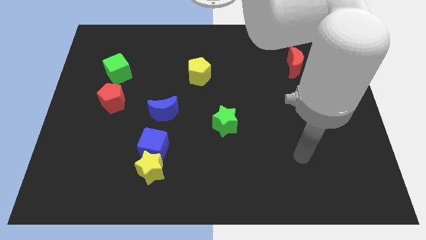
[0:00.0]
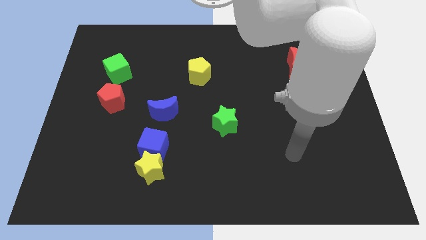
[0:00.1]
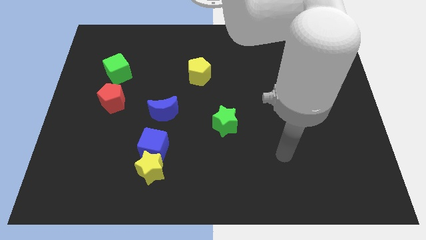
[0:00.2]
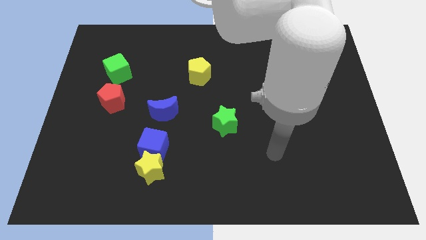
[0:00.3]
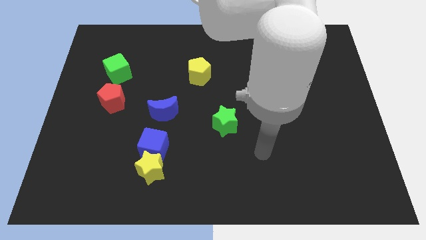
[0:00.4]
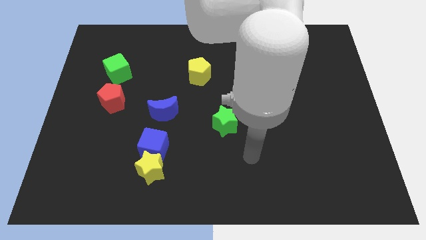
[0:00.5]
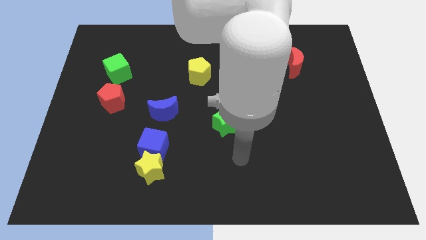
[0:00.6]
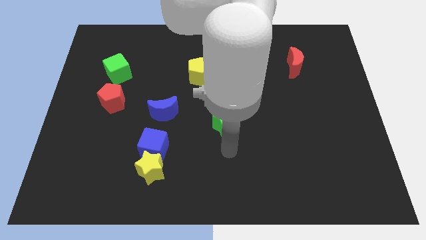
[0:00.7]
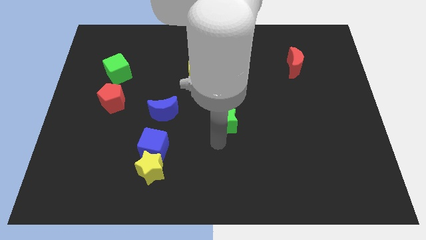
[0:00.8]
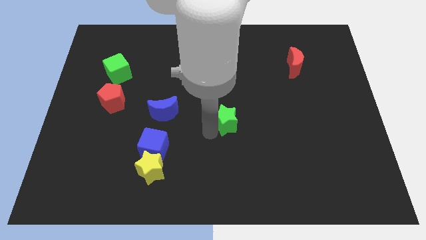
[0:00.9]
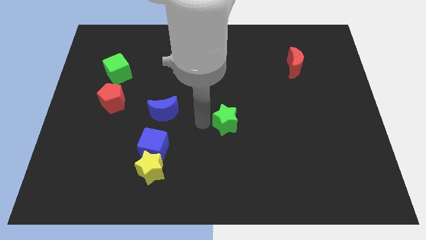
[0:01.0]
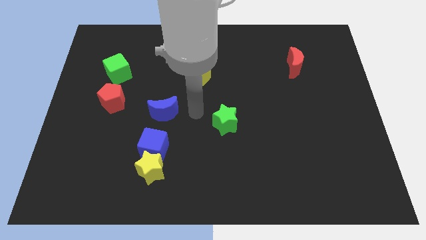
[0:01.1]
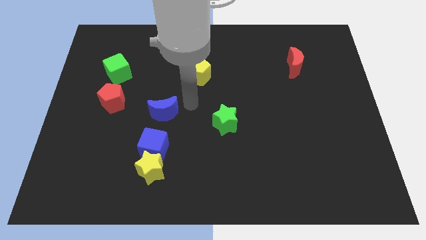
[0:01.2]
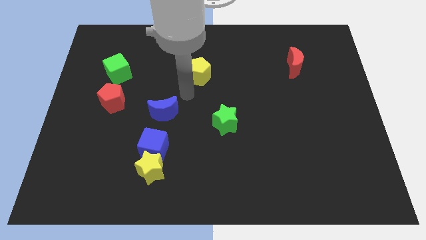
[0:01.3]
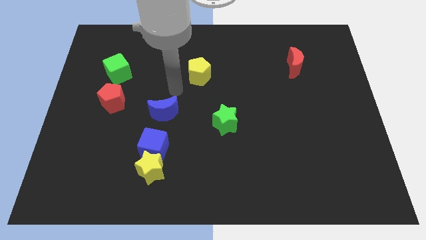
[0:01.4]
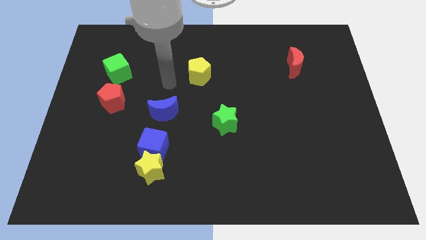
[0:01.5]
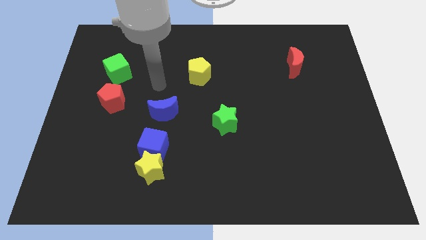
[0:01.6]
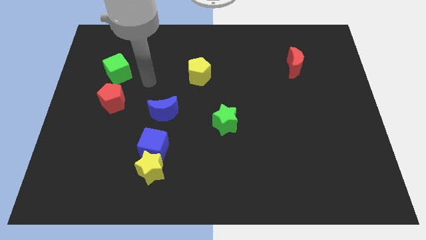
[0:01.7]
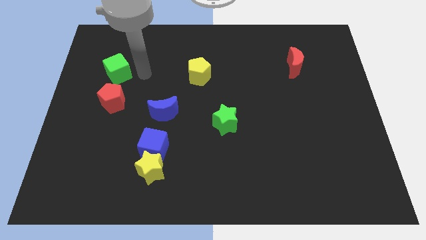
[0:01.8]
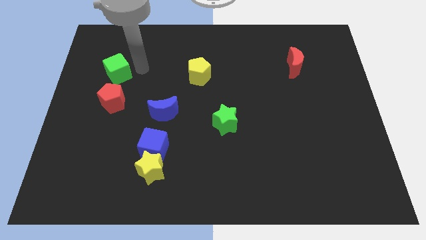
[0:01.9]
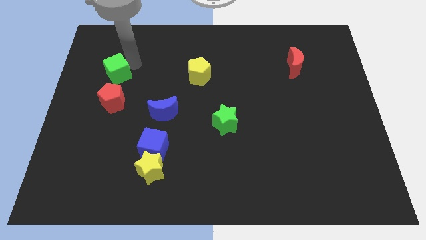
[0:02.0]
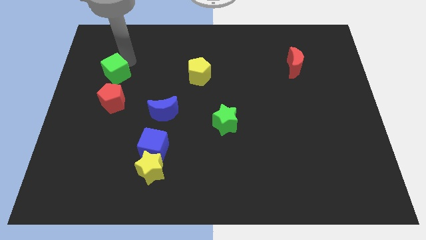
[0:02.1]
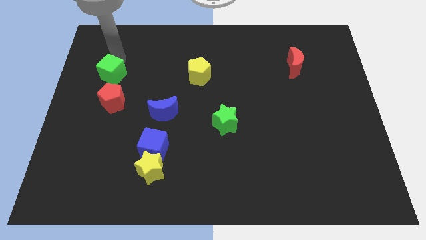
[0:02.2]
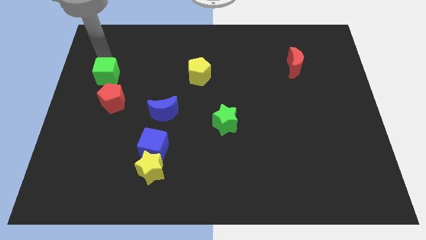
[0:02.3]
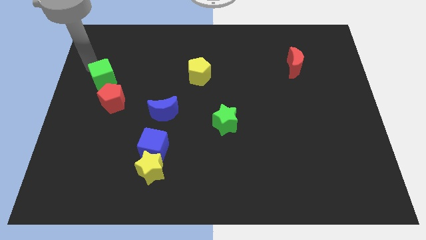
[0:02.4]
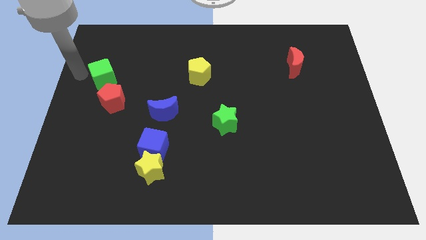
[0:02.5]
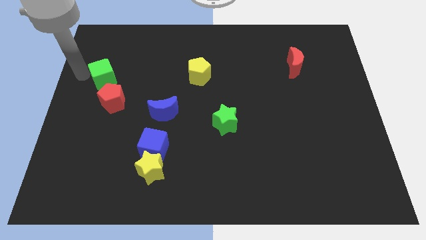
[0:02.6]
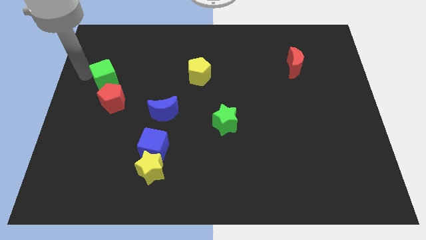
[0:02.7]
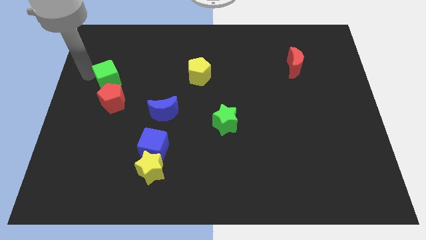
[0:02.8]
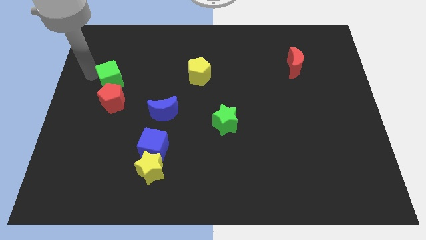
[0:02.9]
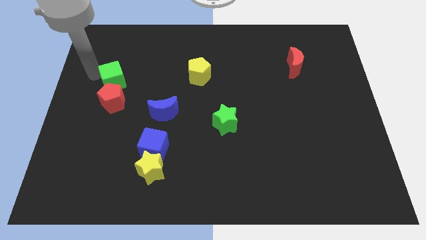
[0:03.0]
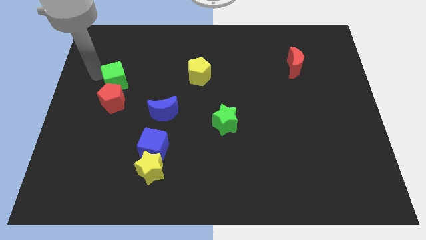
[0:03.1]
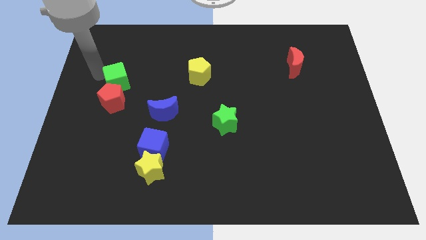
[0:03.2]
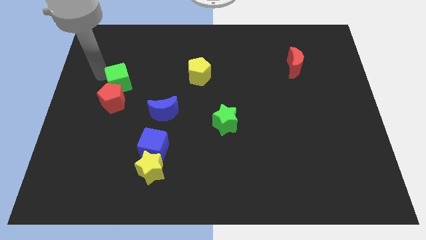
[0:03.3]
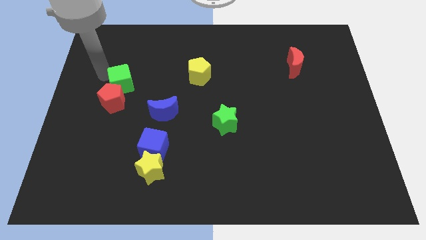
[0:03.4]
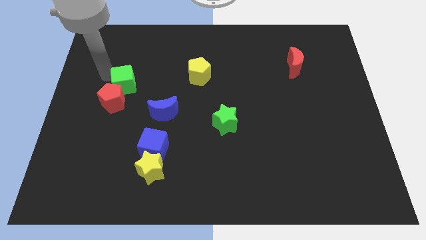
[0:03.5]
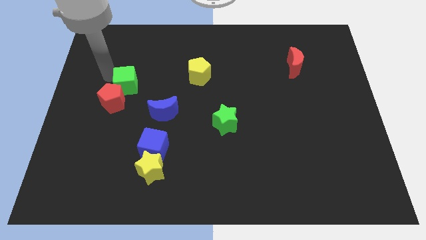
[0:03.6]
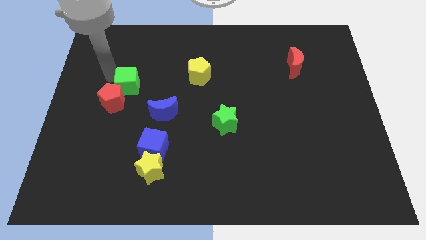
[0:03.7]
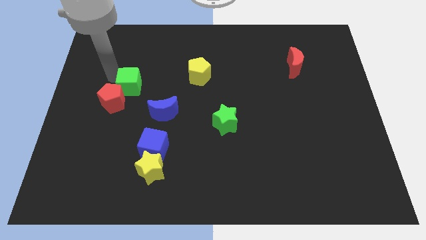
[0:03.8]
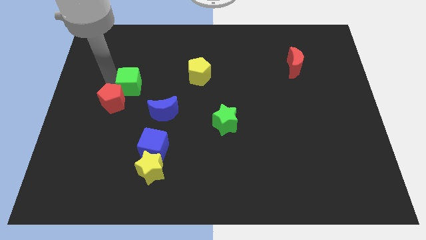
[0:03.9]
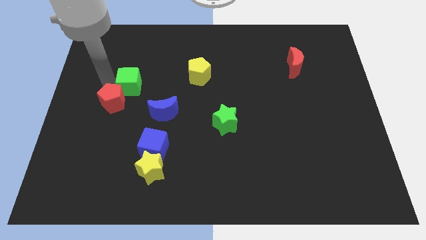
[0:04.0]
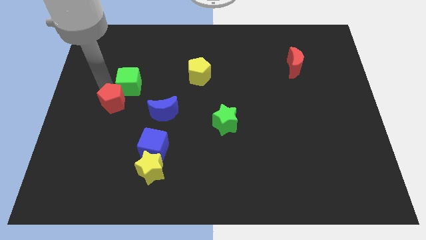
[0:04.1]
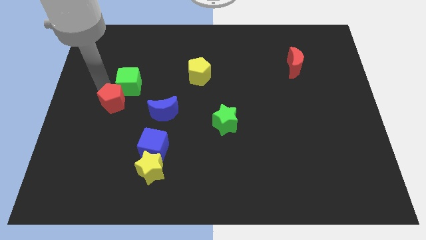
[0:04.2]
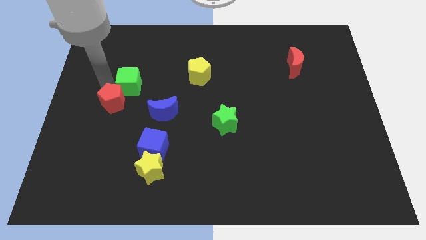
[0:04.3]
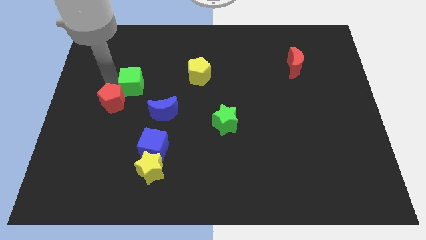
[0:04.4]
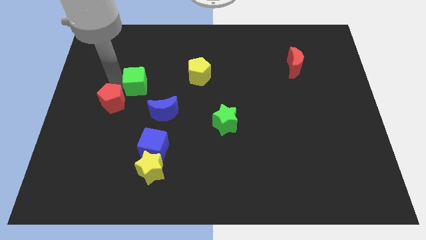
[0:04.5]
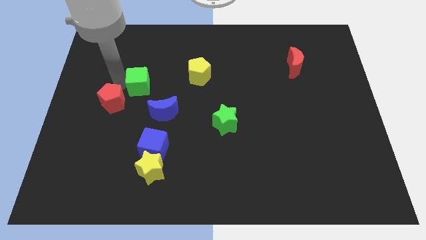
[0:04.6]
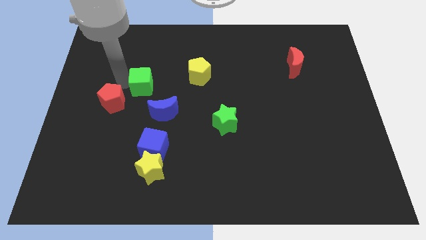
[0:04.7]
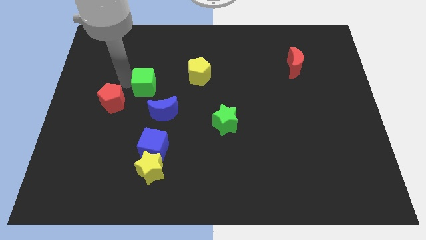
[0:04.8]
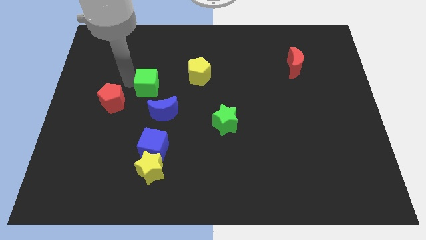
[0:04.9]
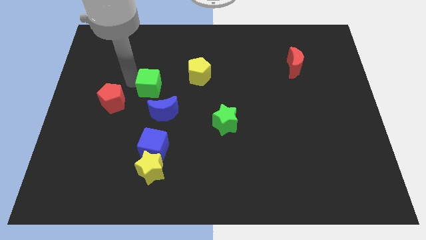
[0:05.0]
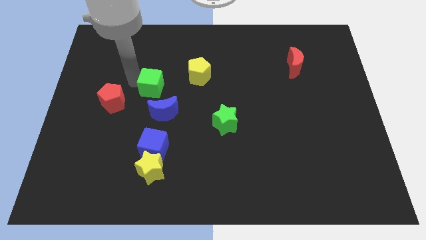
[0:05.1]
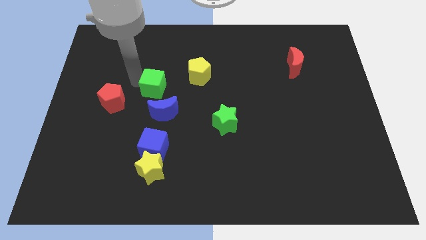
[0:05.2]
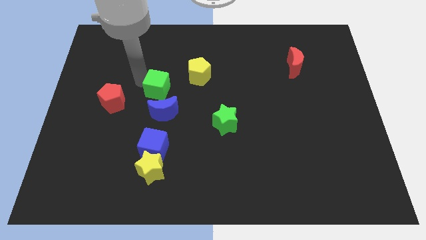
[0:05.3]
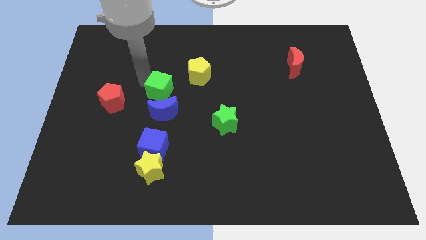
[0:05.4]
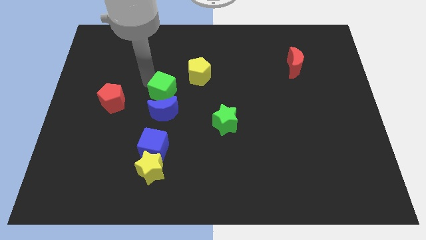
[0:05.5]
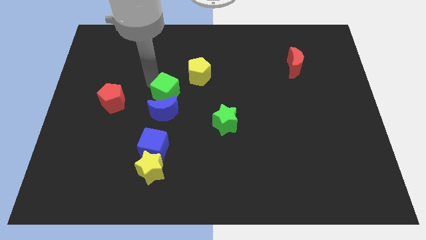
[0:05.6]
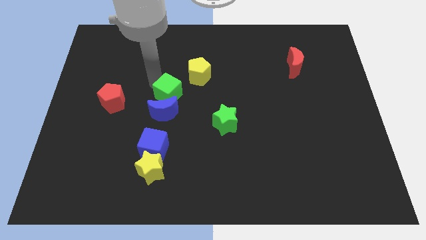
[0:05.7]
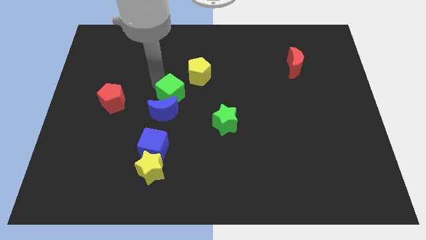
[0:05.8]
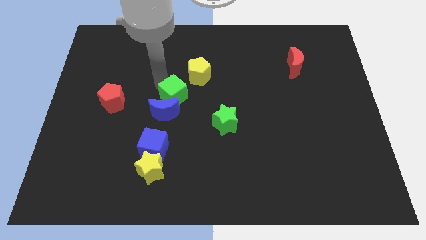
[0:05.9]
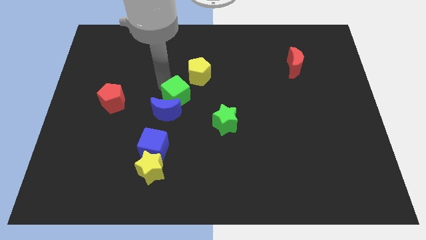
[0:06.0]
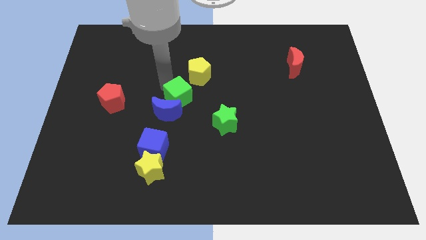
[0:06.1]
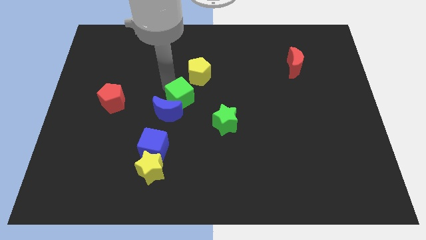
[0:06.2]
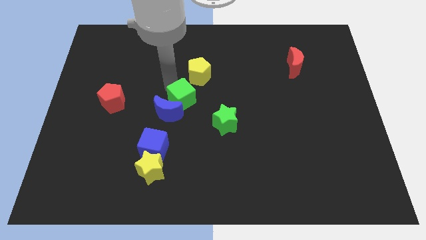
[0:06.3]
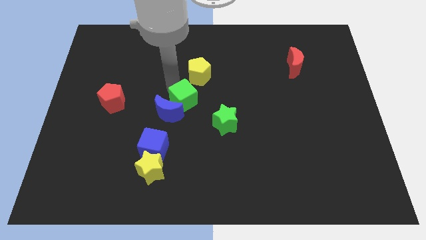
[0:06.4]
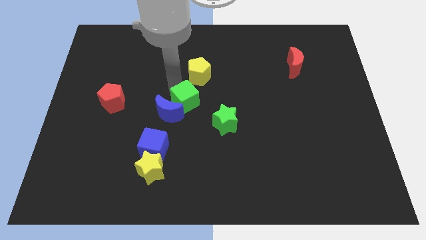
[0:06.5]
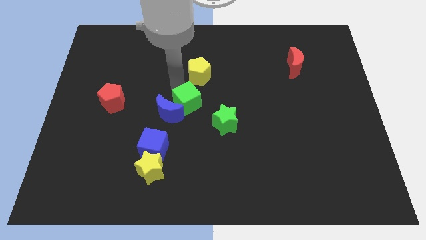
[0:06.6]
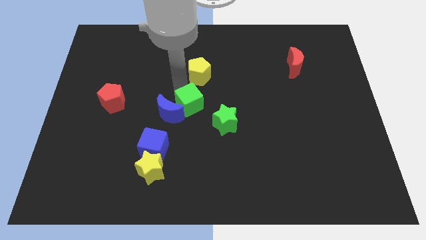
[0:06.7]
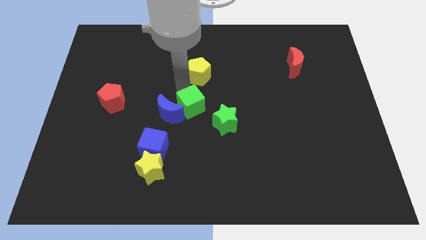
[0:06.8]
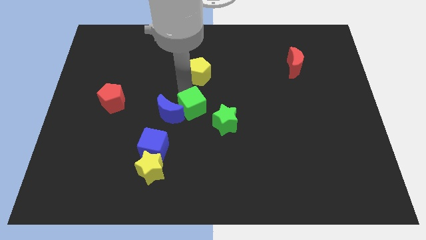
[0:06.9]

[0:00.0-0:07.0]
slide the green cube down and right diagonally

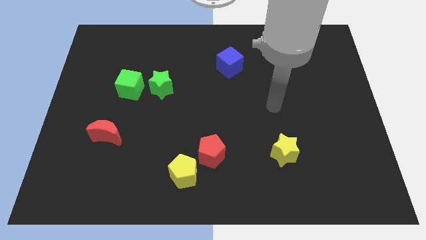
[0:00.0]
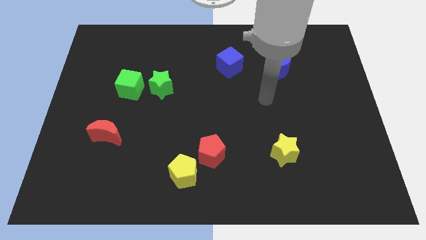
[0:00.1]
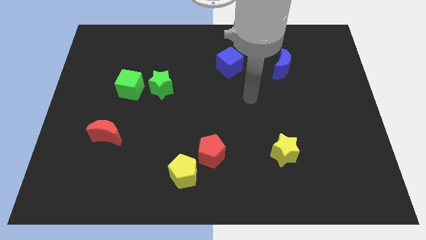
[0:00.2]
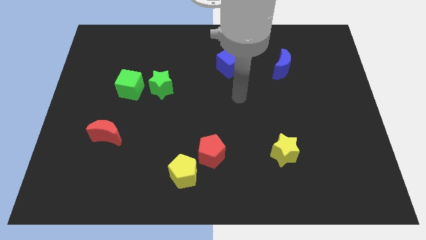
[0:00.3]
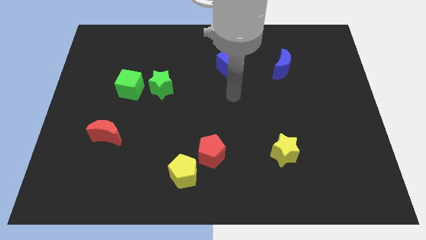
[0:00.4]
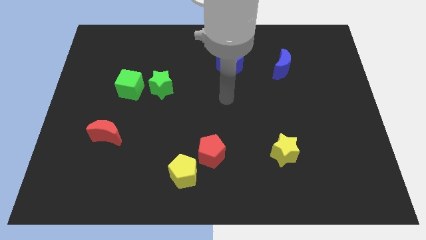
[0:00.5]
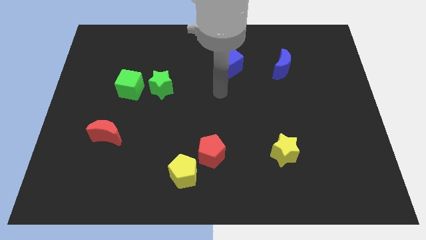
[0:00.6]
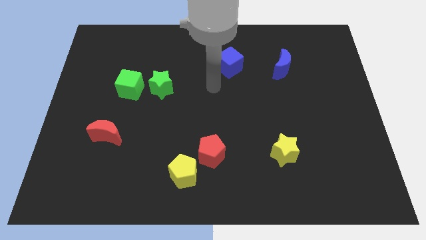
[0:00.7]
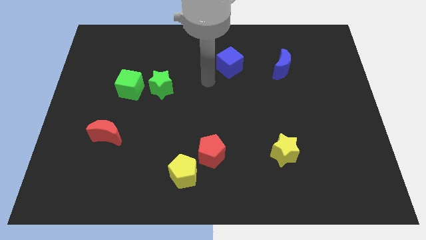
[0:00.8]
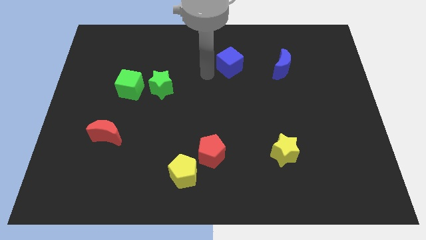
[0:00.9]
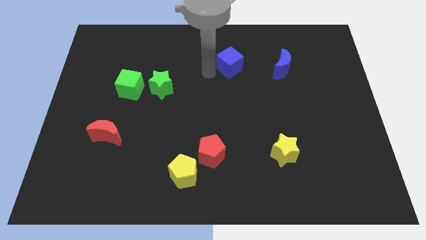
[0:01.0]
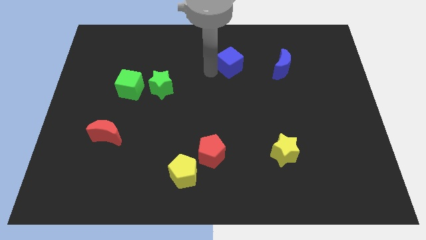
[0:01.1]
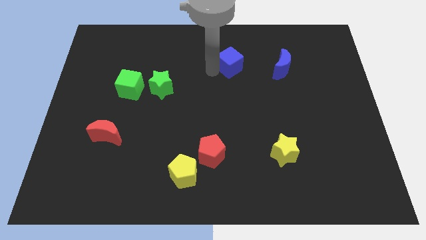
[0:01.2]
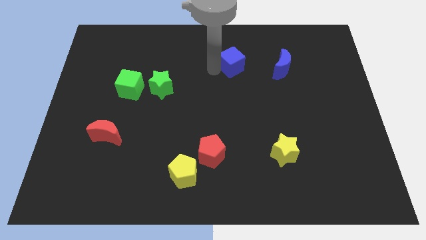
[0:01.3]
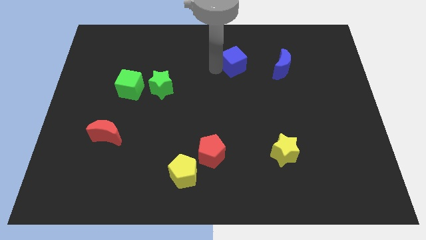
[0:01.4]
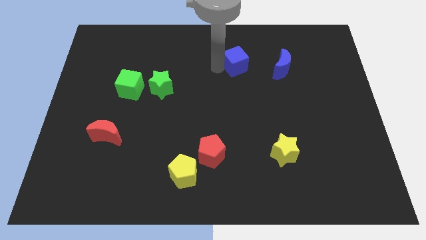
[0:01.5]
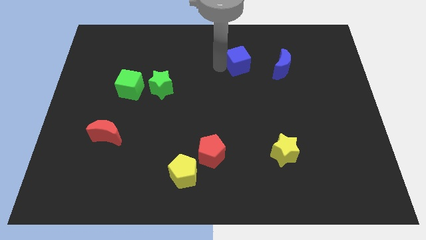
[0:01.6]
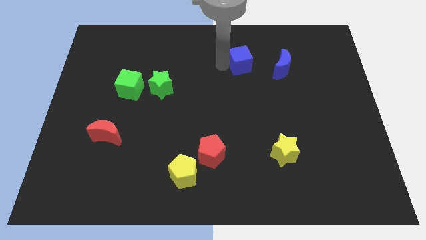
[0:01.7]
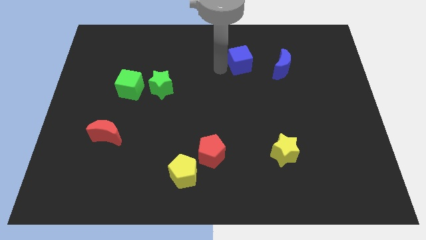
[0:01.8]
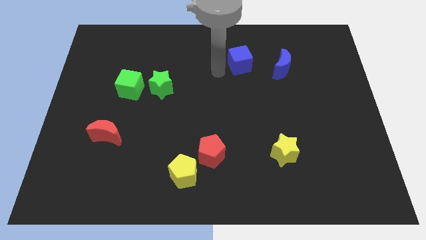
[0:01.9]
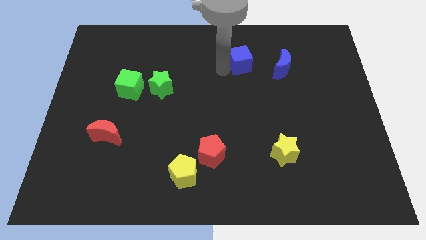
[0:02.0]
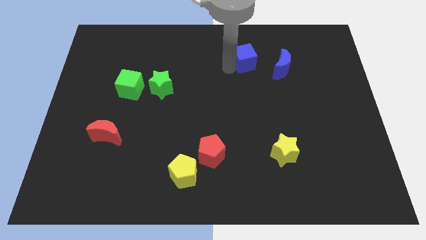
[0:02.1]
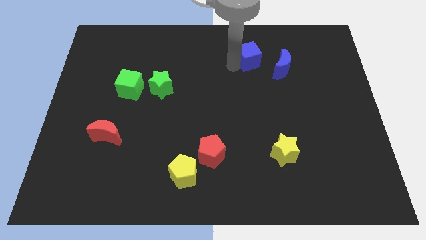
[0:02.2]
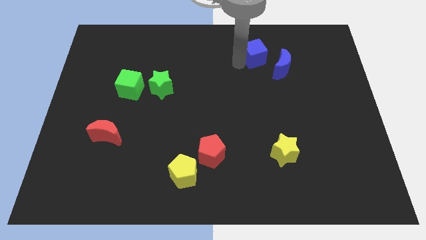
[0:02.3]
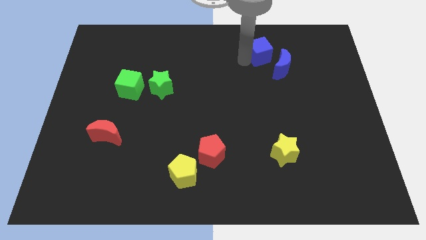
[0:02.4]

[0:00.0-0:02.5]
slightly move the blue cube to the right
